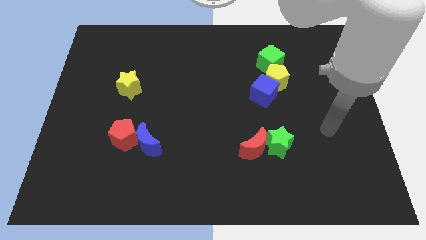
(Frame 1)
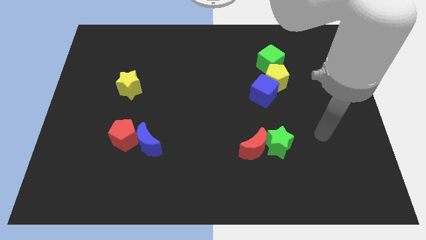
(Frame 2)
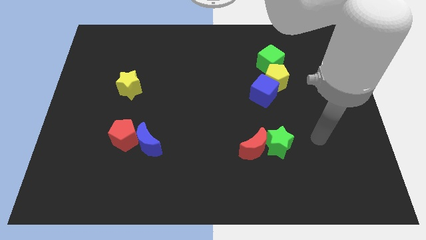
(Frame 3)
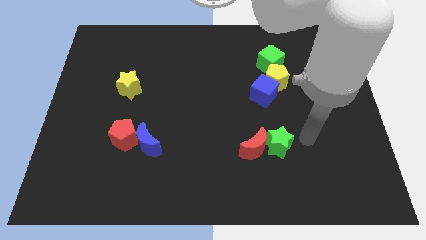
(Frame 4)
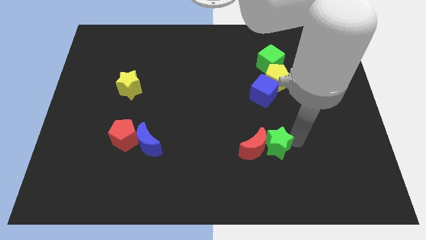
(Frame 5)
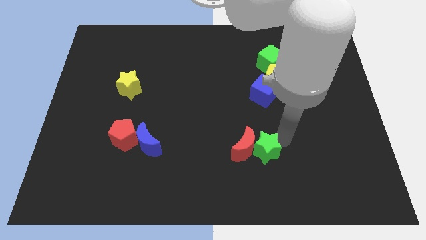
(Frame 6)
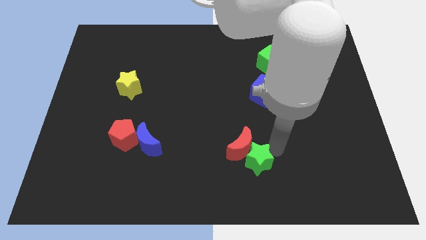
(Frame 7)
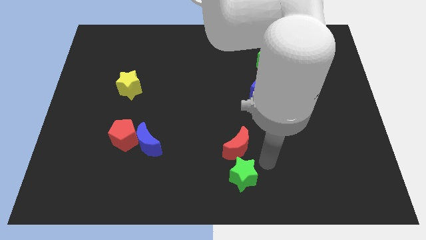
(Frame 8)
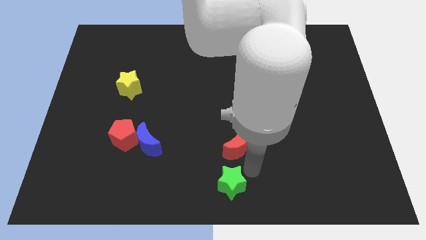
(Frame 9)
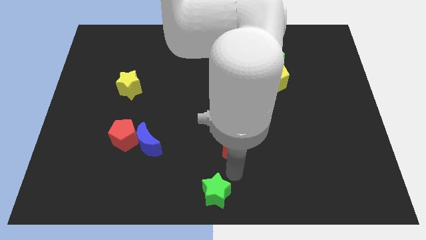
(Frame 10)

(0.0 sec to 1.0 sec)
pull the red moon apart from the green star

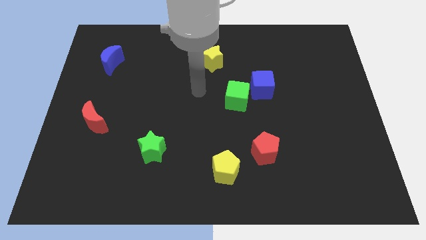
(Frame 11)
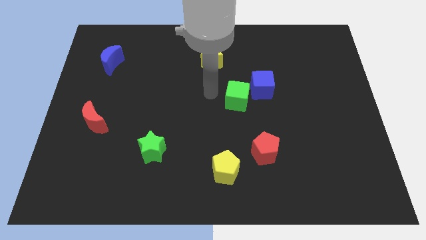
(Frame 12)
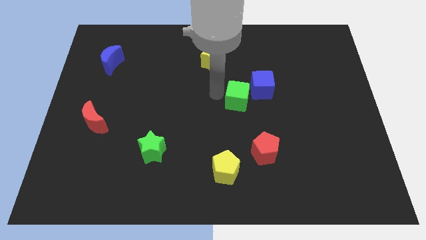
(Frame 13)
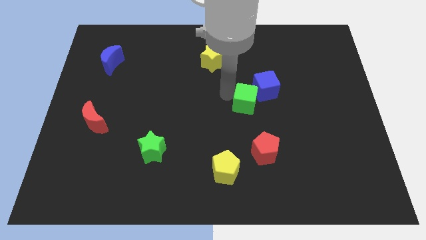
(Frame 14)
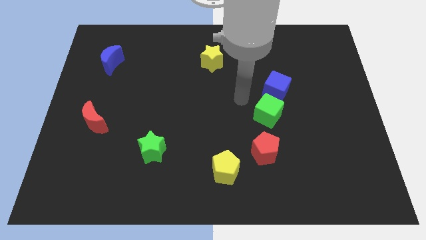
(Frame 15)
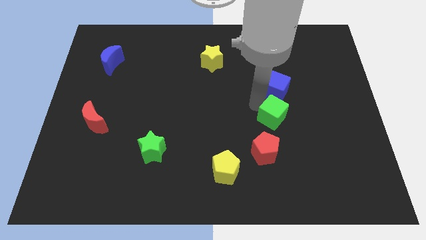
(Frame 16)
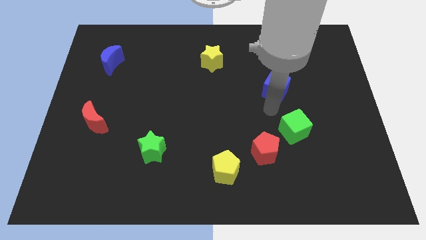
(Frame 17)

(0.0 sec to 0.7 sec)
separate the blue cube from the green cube

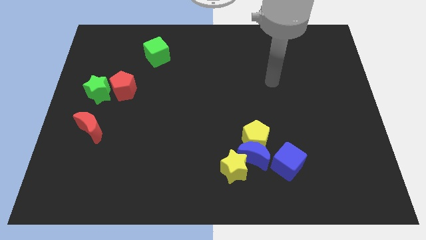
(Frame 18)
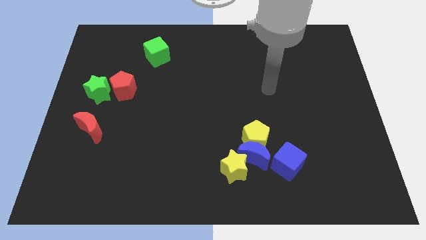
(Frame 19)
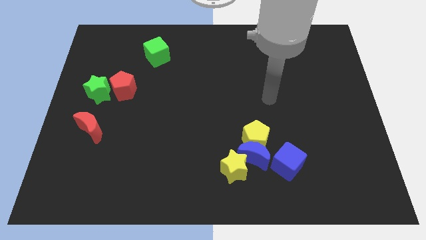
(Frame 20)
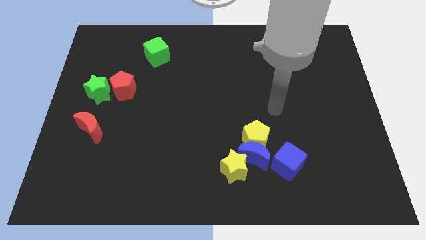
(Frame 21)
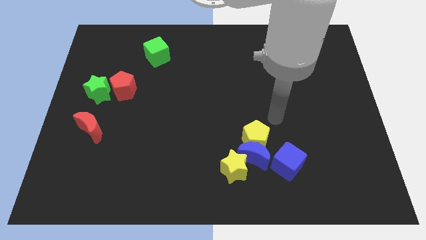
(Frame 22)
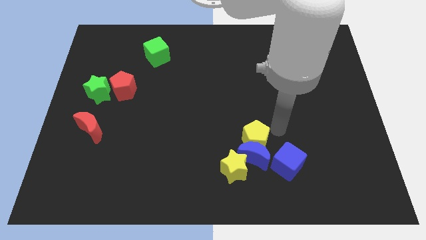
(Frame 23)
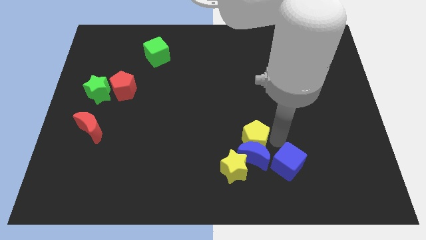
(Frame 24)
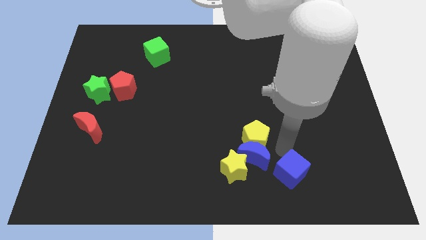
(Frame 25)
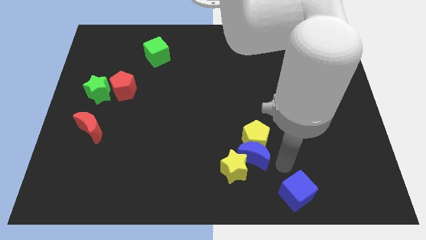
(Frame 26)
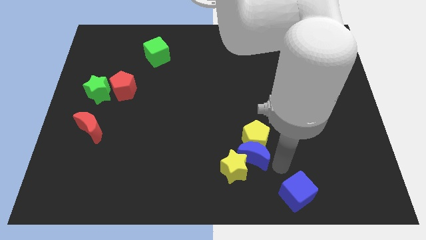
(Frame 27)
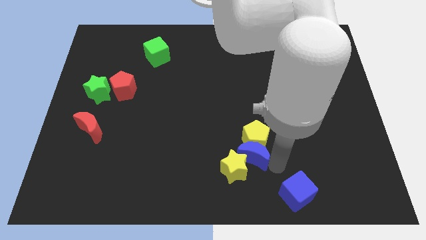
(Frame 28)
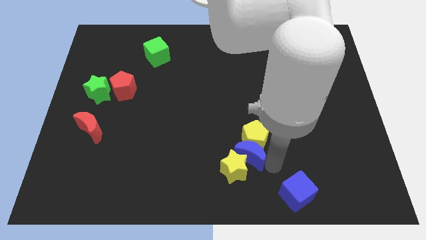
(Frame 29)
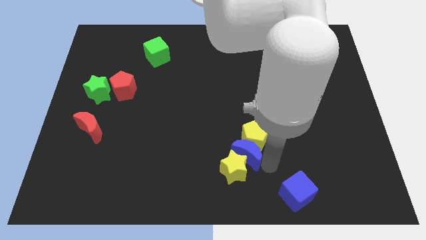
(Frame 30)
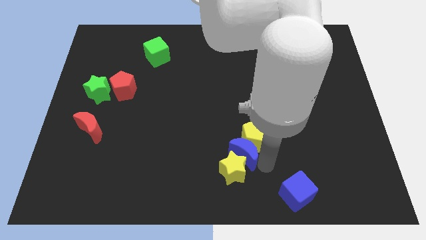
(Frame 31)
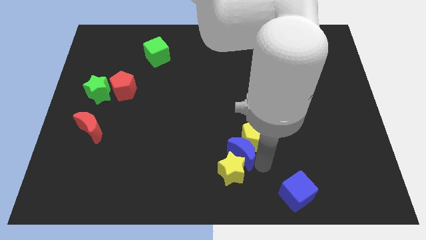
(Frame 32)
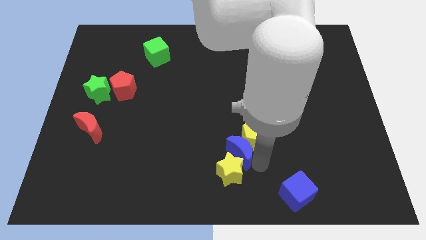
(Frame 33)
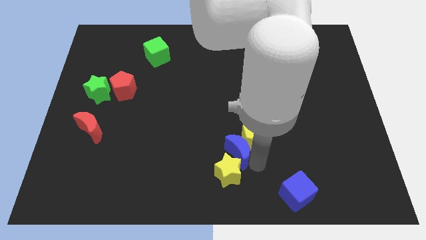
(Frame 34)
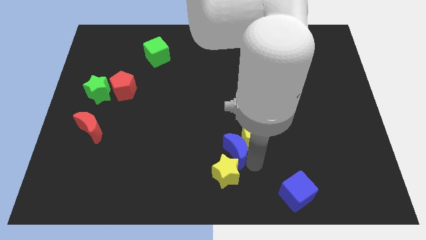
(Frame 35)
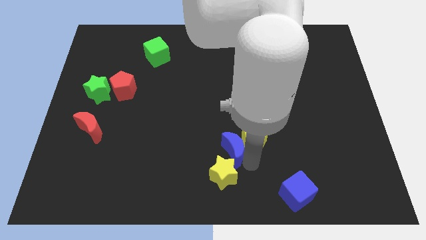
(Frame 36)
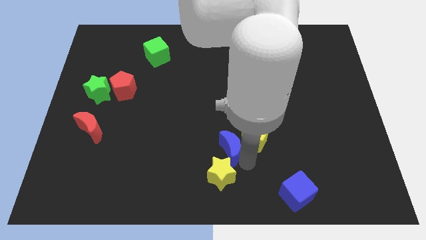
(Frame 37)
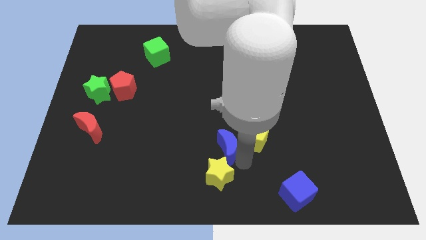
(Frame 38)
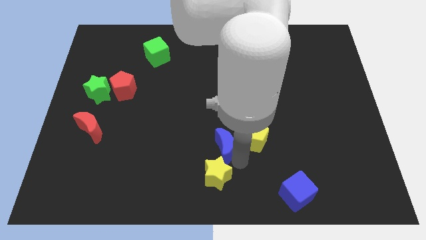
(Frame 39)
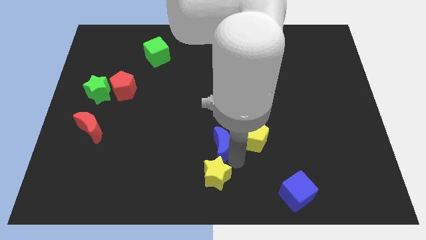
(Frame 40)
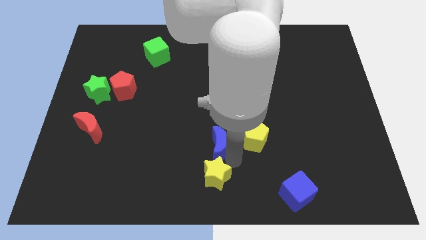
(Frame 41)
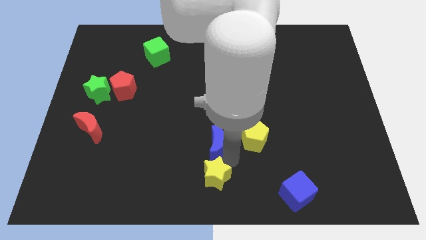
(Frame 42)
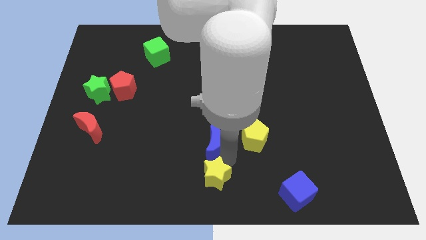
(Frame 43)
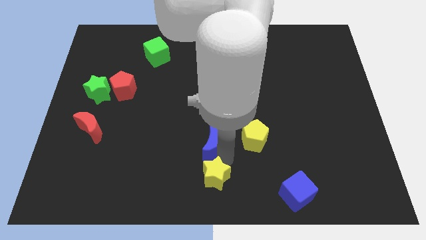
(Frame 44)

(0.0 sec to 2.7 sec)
pull the blue moon apart from the group of blocks

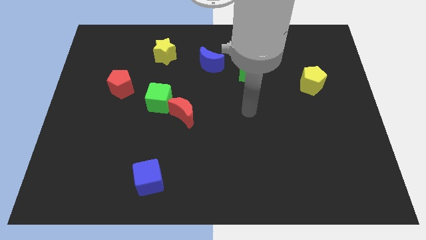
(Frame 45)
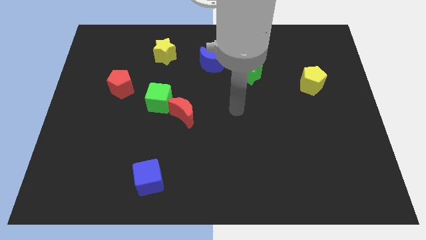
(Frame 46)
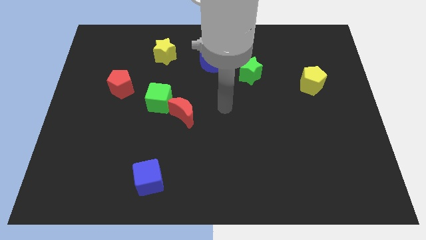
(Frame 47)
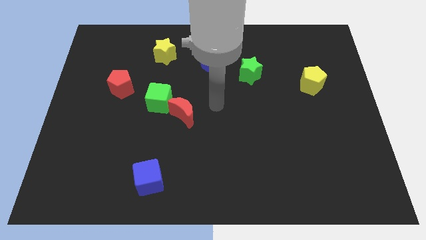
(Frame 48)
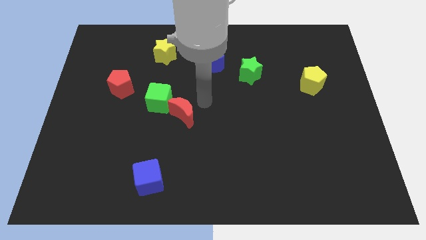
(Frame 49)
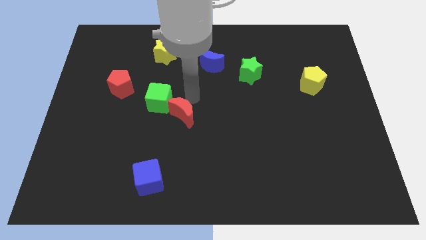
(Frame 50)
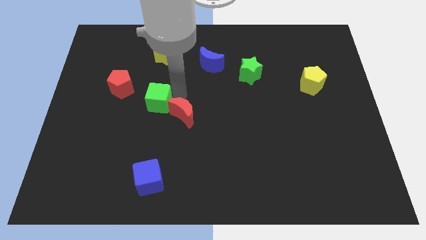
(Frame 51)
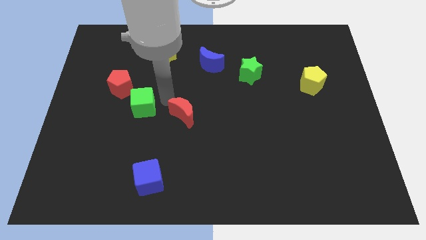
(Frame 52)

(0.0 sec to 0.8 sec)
move the red moon away from the green cube

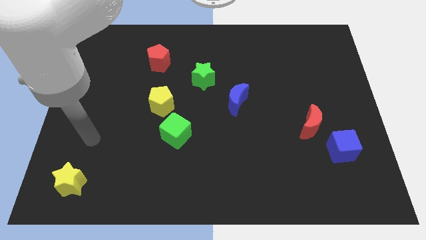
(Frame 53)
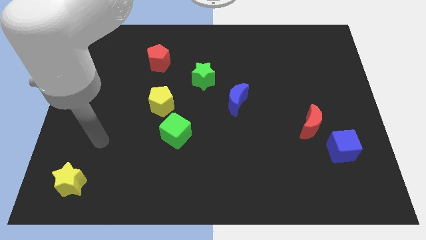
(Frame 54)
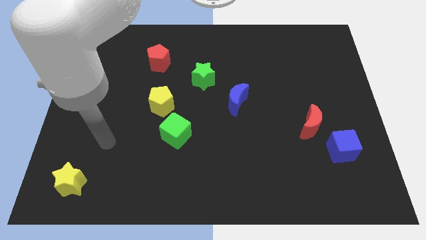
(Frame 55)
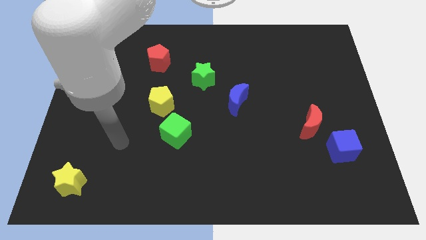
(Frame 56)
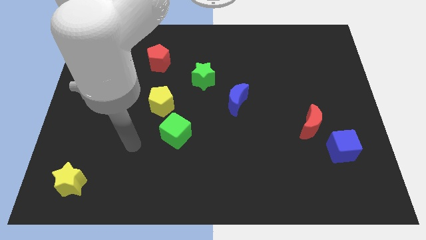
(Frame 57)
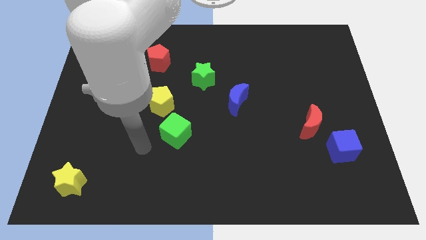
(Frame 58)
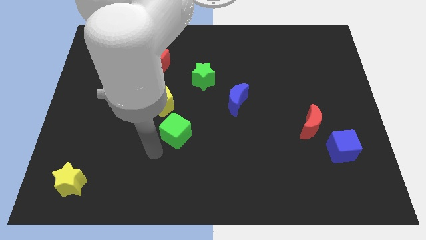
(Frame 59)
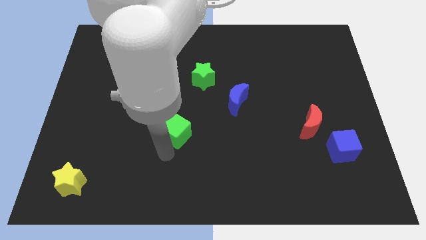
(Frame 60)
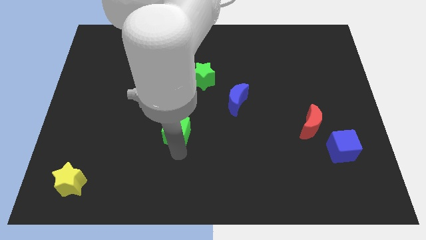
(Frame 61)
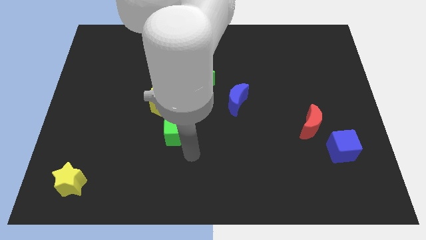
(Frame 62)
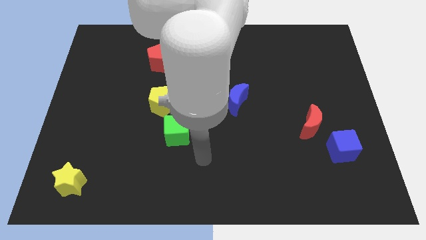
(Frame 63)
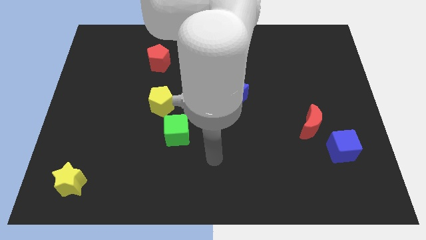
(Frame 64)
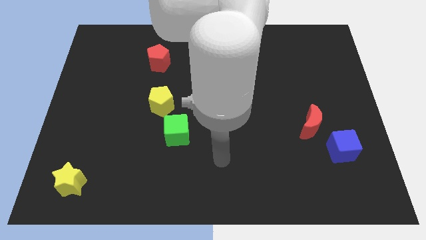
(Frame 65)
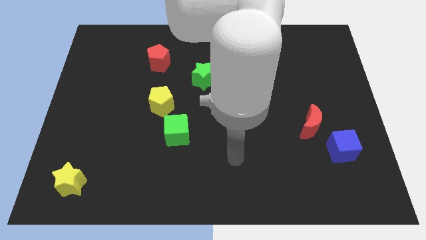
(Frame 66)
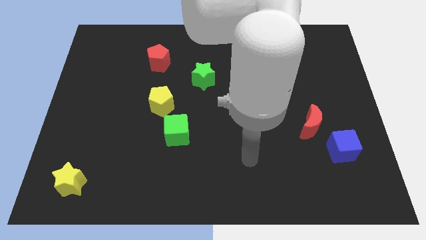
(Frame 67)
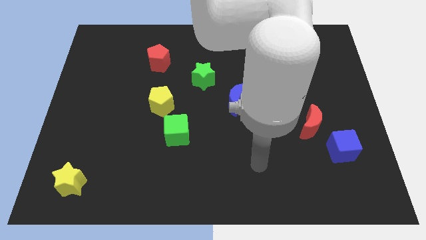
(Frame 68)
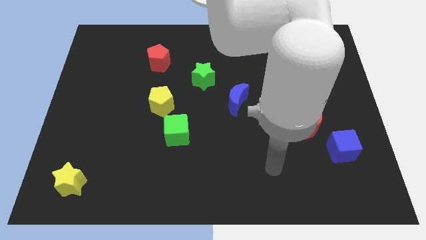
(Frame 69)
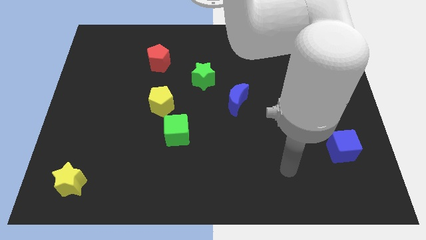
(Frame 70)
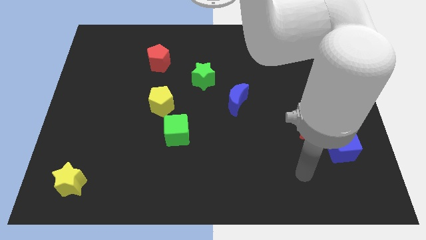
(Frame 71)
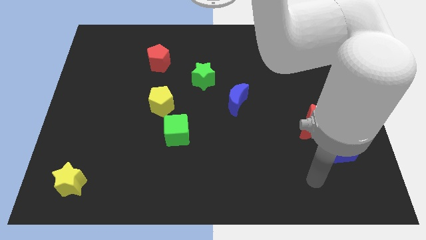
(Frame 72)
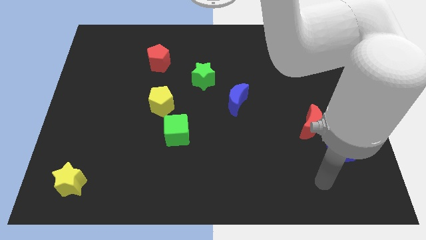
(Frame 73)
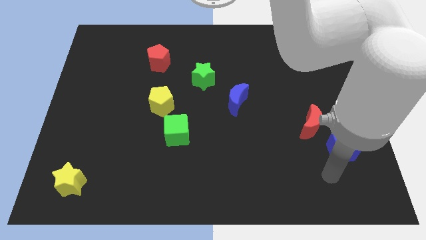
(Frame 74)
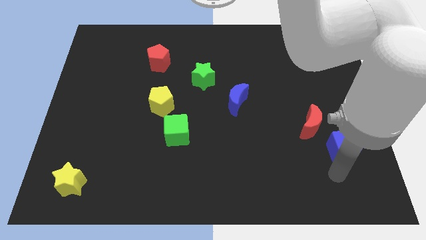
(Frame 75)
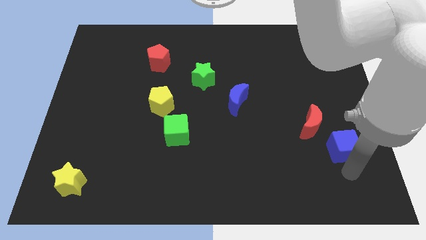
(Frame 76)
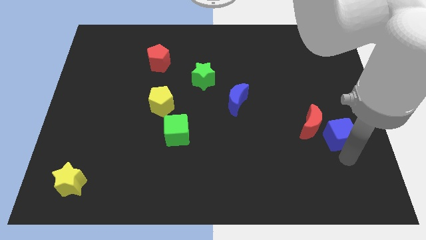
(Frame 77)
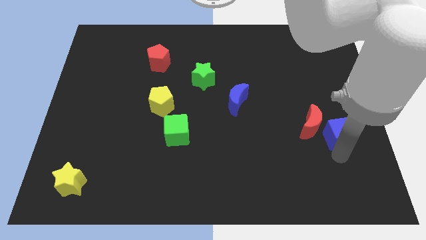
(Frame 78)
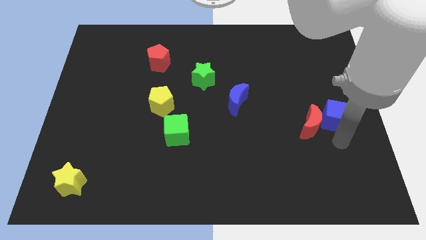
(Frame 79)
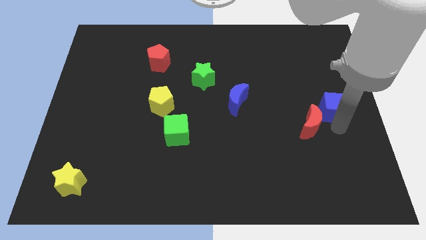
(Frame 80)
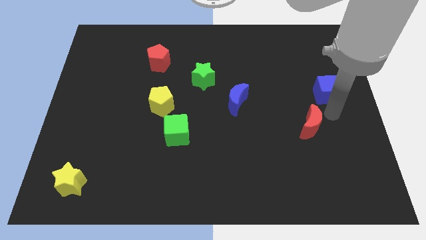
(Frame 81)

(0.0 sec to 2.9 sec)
separate the red moon from the blue cube

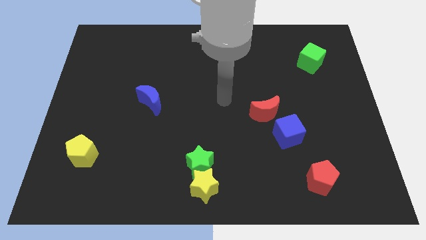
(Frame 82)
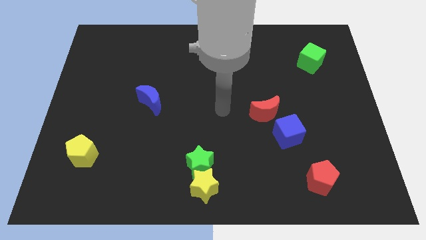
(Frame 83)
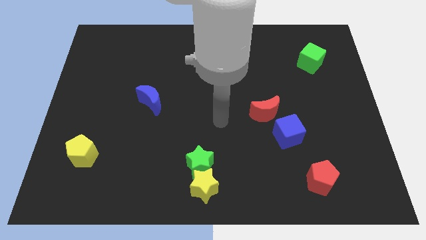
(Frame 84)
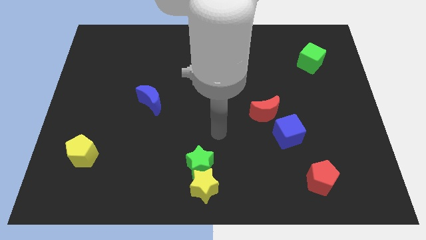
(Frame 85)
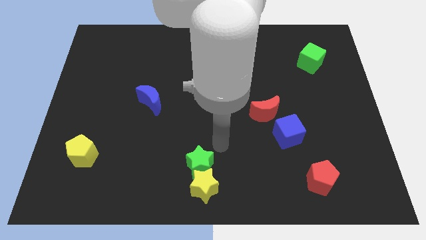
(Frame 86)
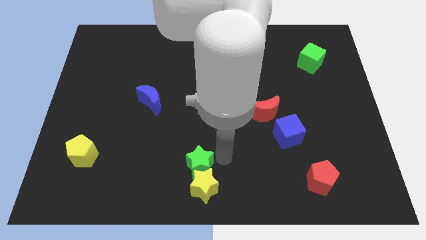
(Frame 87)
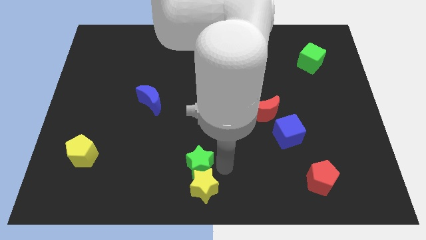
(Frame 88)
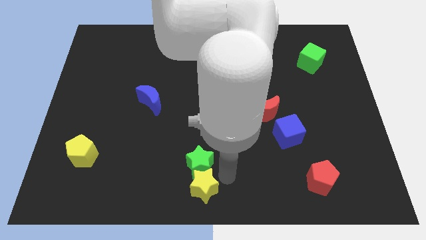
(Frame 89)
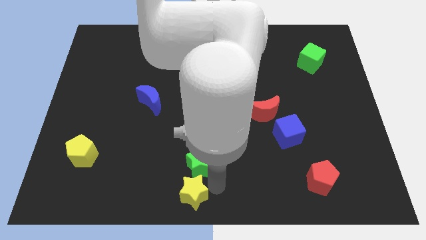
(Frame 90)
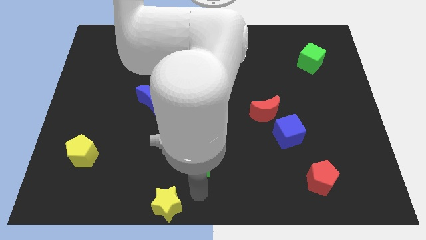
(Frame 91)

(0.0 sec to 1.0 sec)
separate the green star from the yellow star

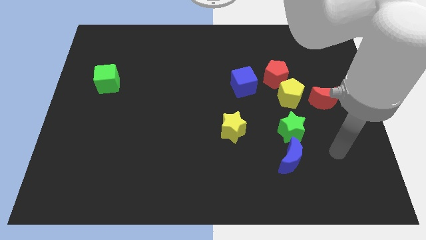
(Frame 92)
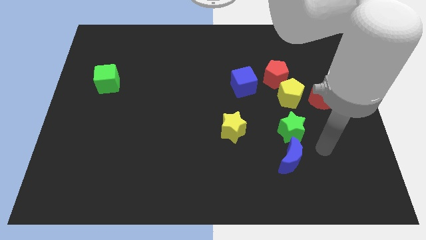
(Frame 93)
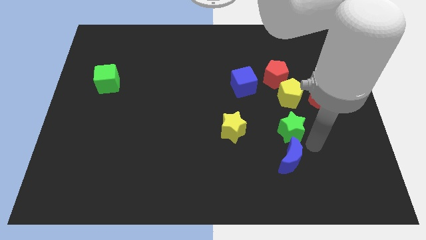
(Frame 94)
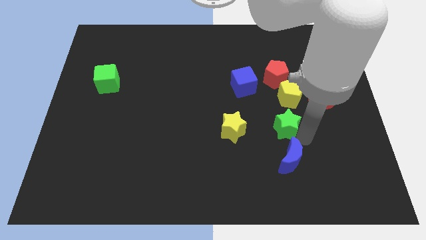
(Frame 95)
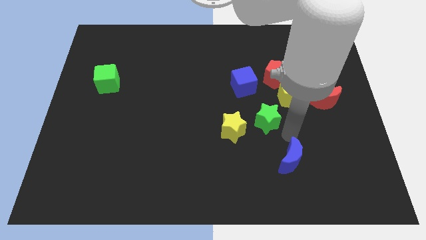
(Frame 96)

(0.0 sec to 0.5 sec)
move the blue moon away from the green star
